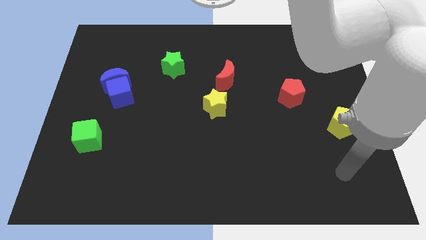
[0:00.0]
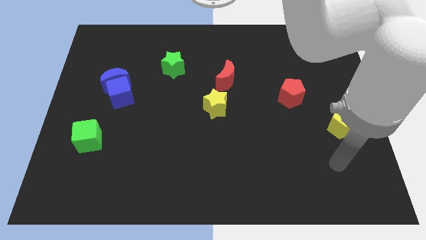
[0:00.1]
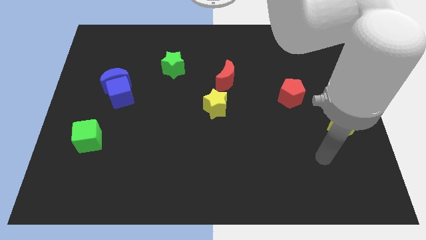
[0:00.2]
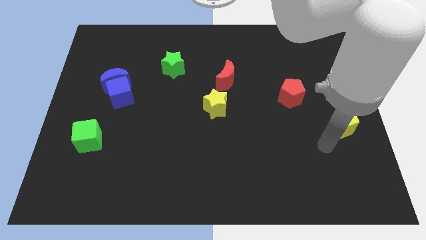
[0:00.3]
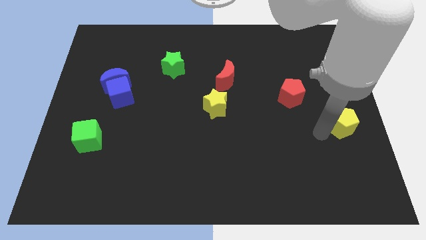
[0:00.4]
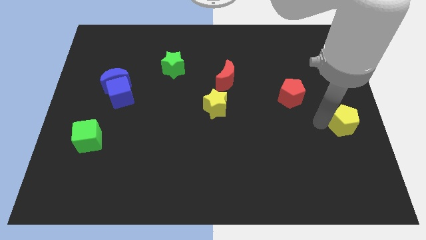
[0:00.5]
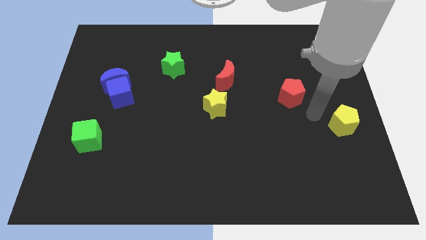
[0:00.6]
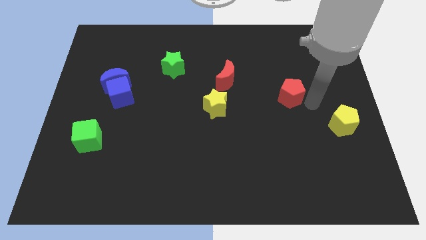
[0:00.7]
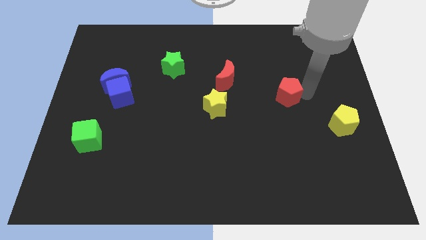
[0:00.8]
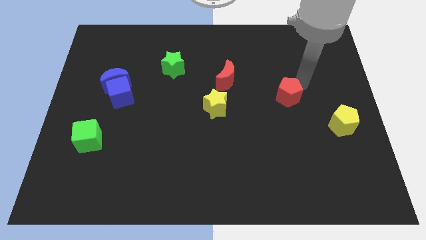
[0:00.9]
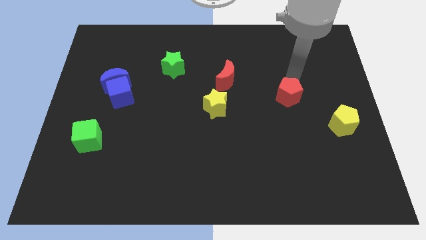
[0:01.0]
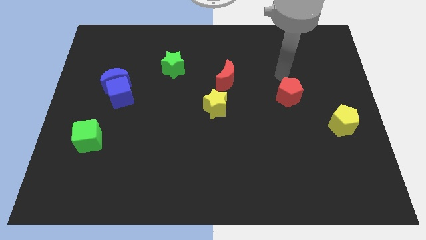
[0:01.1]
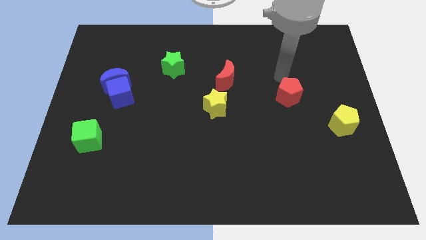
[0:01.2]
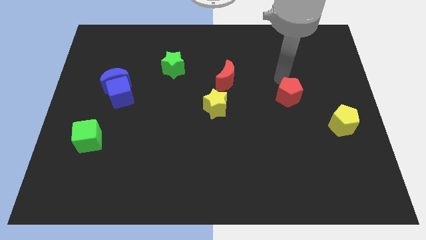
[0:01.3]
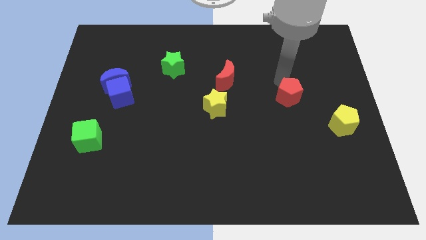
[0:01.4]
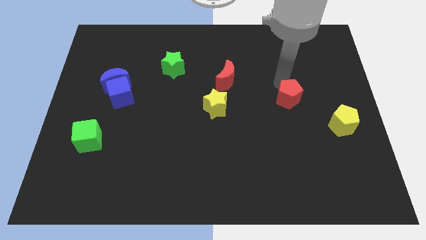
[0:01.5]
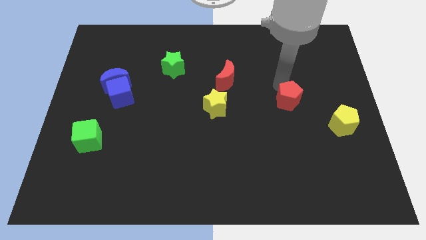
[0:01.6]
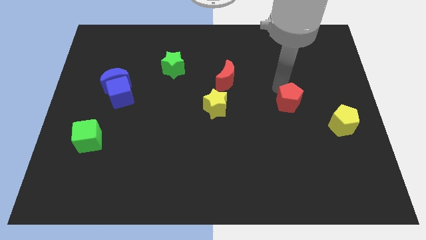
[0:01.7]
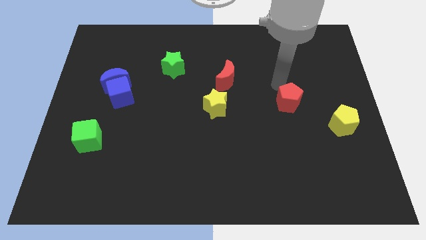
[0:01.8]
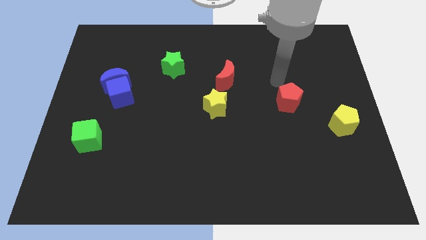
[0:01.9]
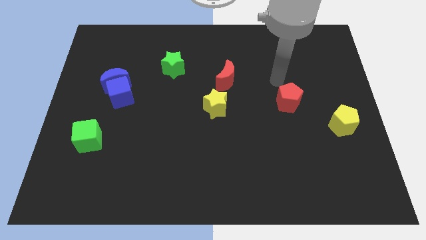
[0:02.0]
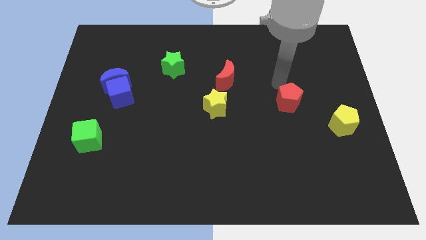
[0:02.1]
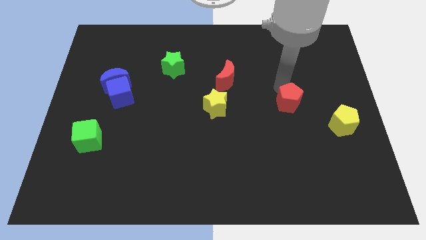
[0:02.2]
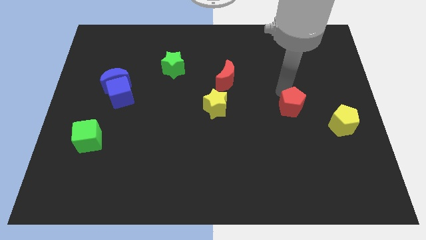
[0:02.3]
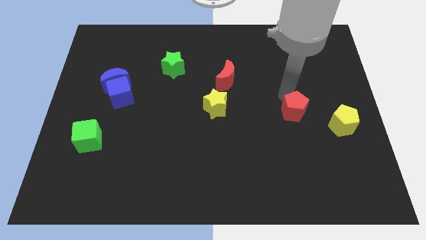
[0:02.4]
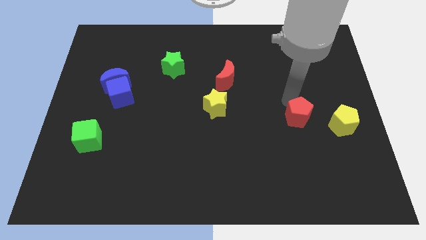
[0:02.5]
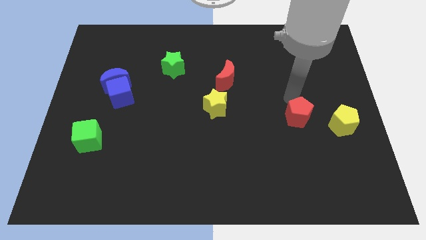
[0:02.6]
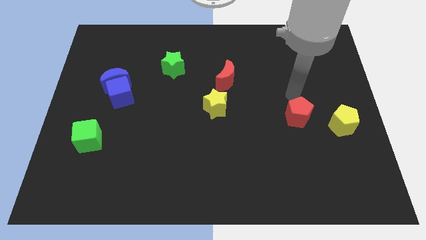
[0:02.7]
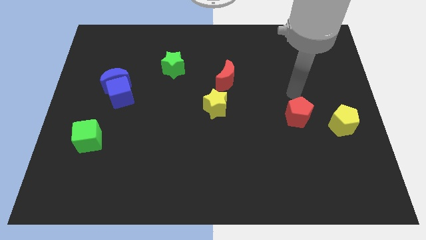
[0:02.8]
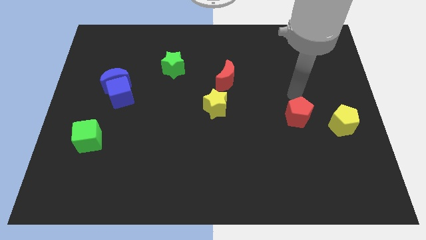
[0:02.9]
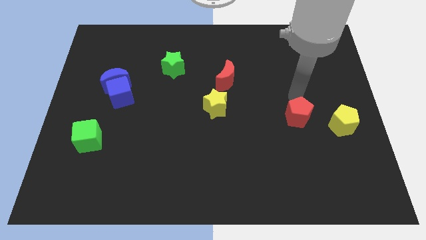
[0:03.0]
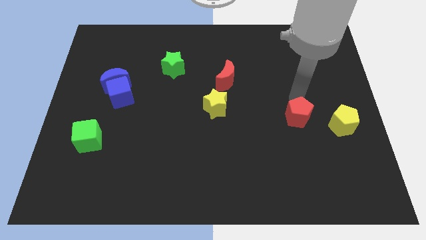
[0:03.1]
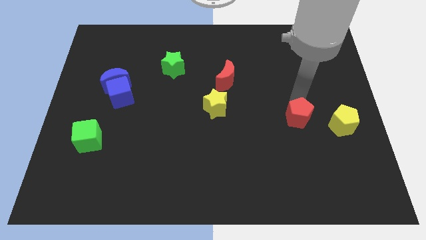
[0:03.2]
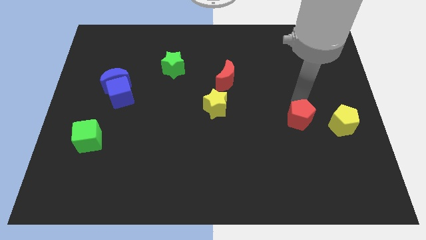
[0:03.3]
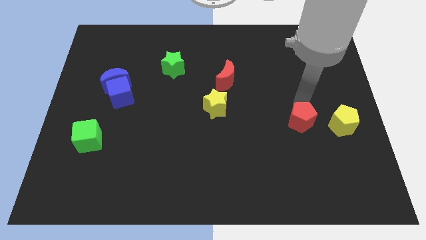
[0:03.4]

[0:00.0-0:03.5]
slide the red pentagon down a little bit

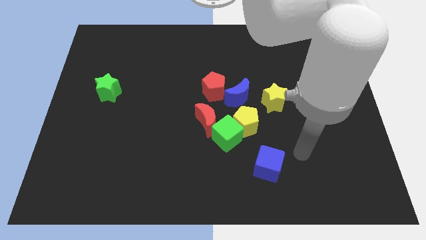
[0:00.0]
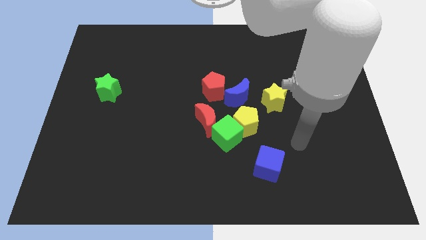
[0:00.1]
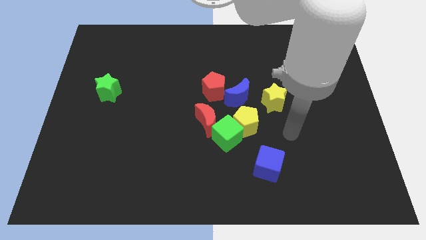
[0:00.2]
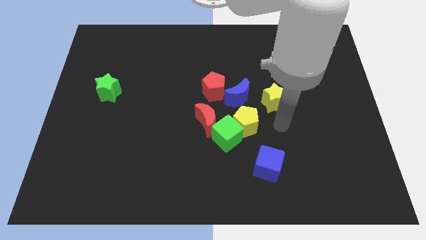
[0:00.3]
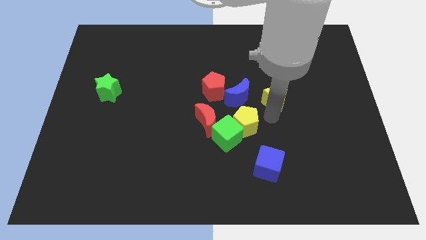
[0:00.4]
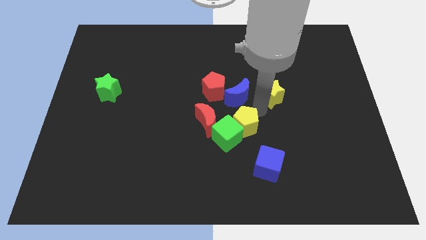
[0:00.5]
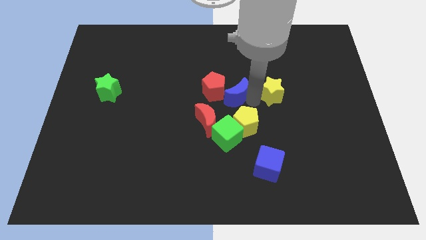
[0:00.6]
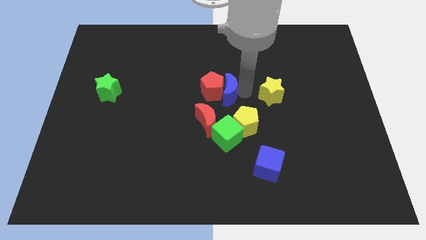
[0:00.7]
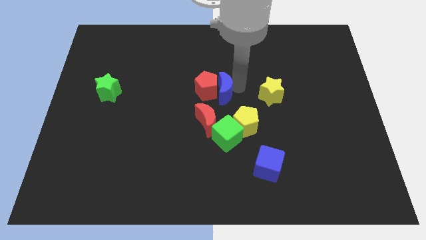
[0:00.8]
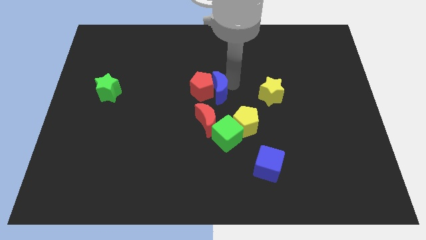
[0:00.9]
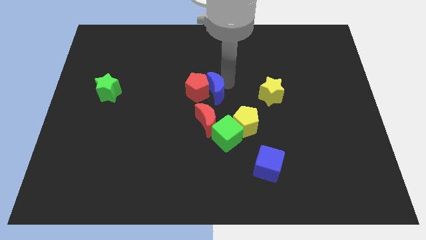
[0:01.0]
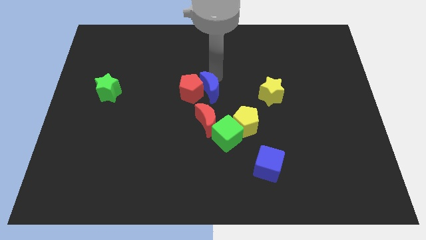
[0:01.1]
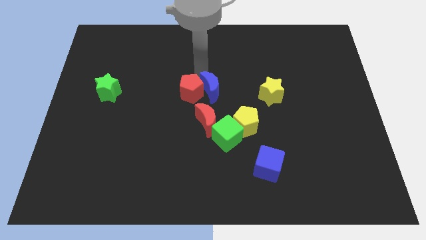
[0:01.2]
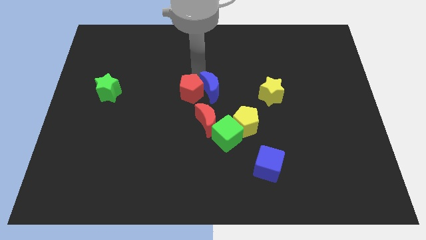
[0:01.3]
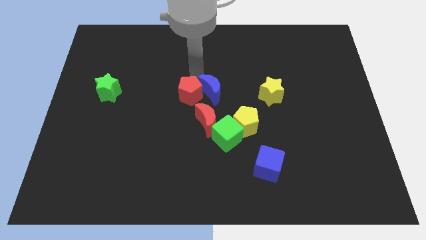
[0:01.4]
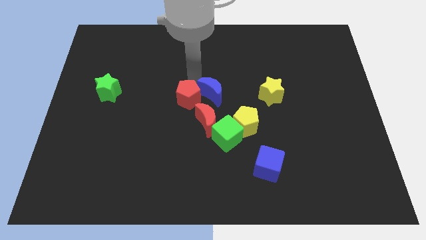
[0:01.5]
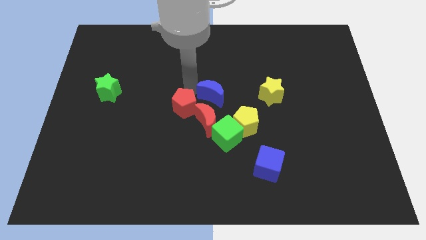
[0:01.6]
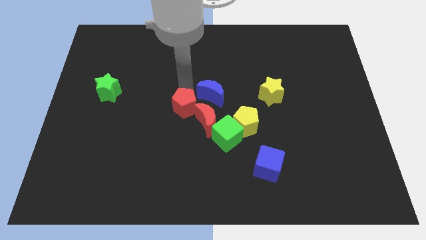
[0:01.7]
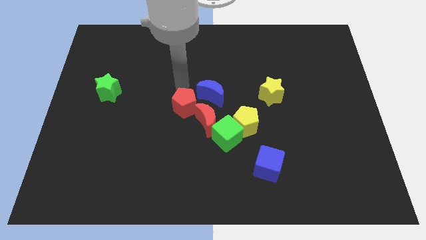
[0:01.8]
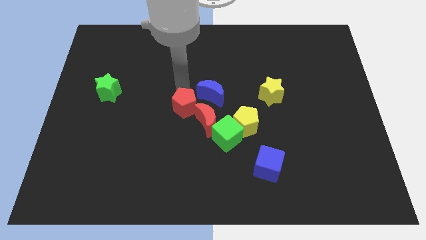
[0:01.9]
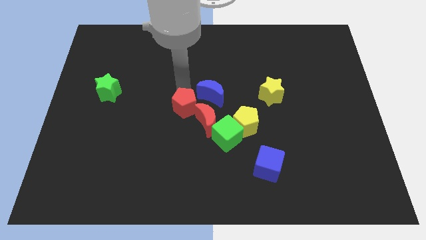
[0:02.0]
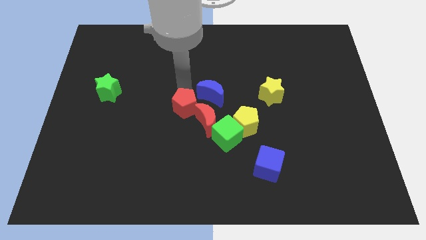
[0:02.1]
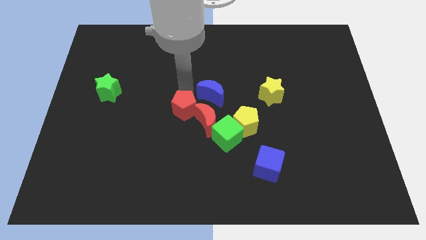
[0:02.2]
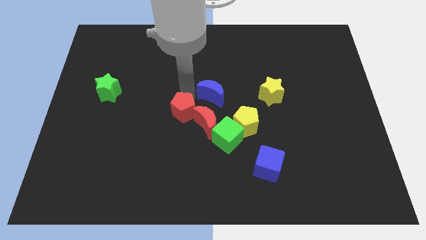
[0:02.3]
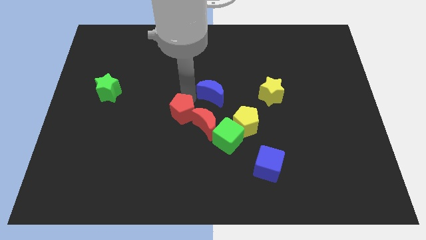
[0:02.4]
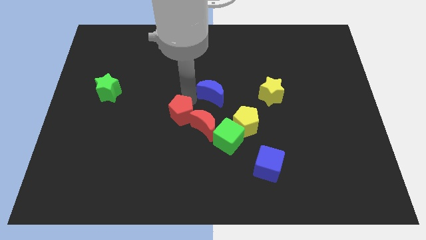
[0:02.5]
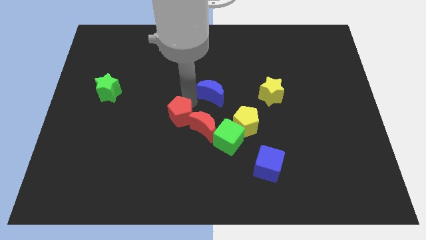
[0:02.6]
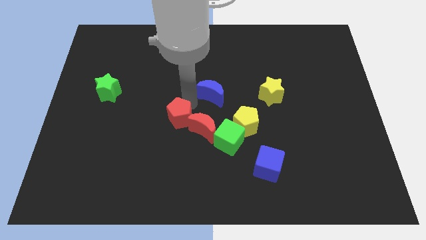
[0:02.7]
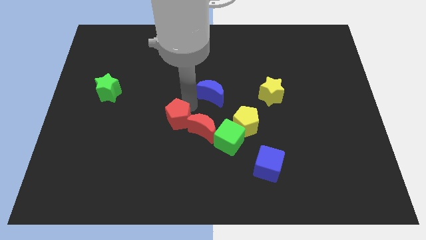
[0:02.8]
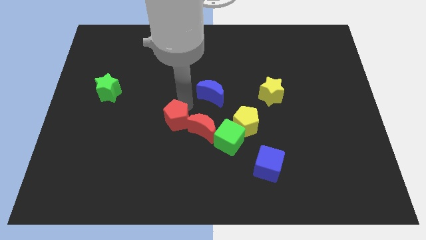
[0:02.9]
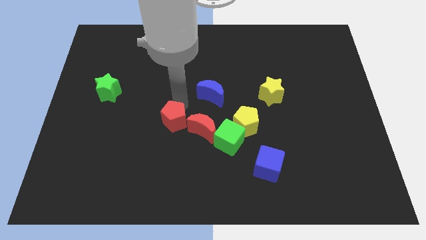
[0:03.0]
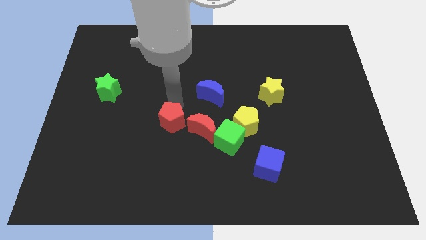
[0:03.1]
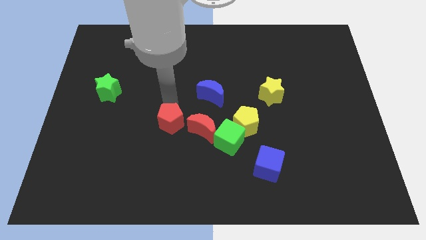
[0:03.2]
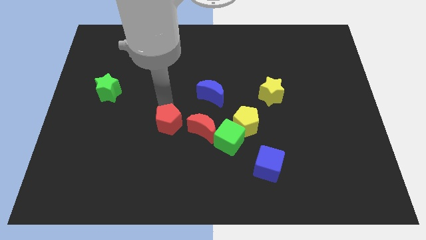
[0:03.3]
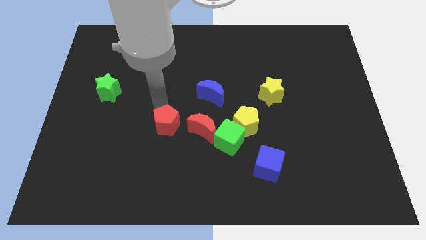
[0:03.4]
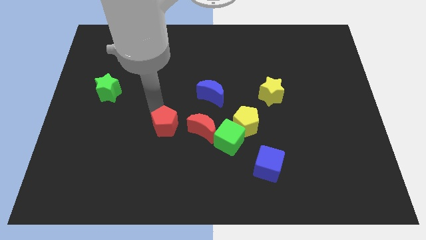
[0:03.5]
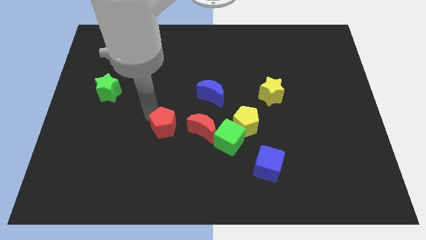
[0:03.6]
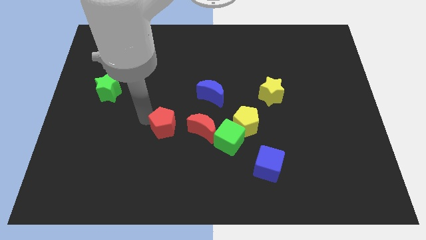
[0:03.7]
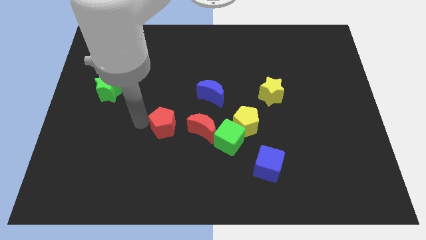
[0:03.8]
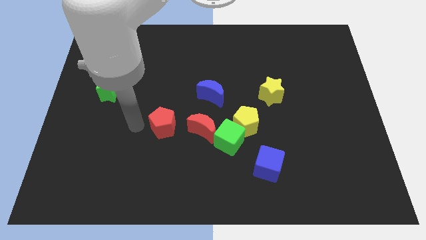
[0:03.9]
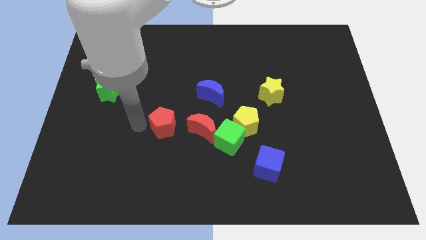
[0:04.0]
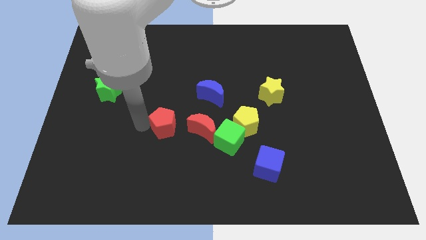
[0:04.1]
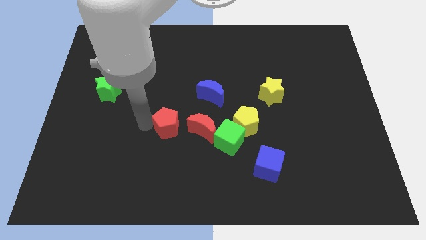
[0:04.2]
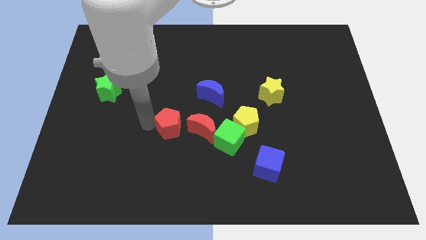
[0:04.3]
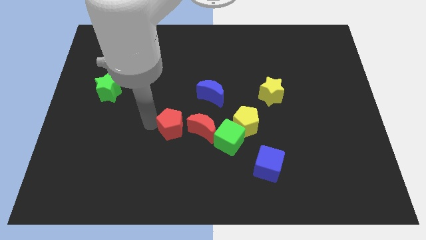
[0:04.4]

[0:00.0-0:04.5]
push the red pentagon downwards a little bit
